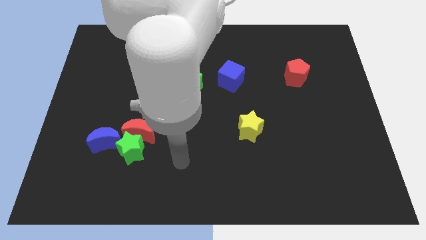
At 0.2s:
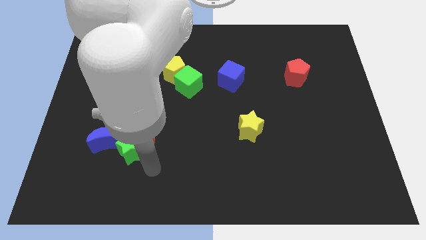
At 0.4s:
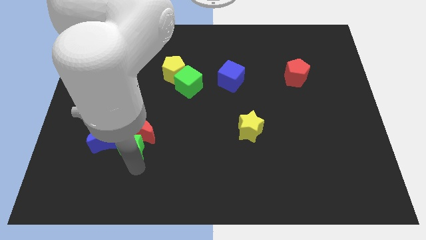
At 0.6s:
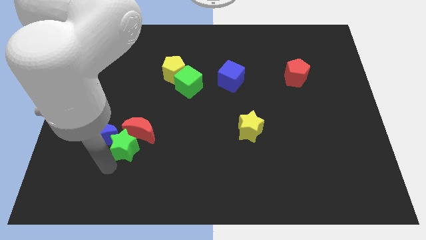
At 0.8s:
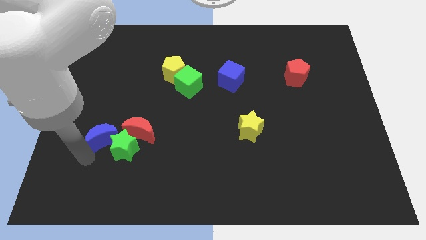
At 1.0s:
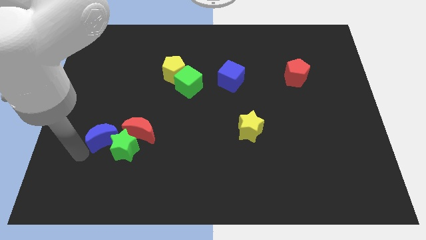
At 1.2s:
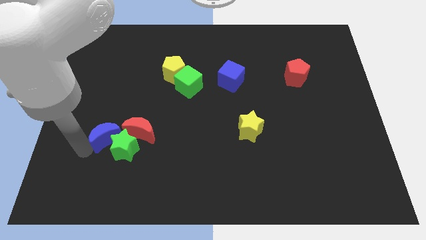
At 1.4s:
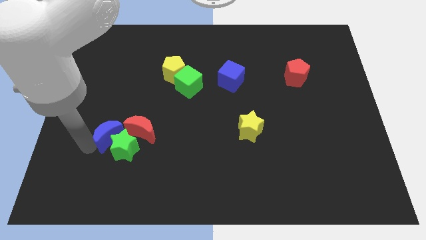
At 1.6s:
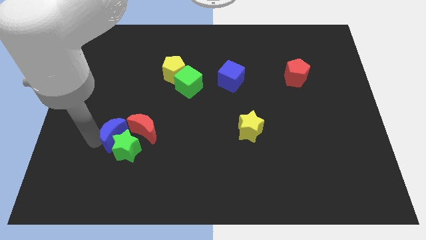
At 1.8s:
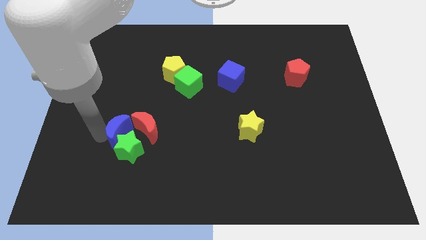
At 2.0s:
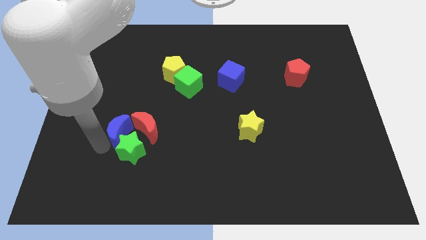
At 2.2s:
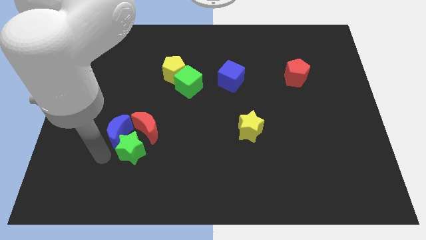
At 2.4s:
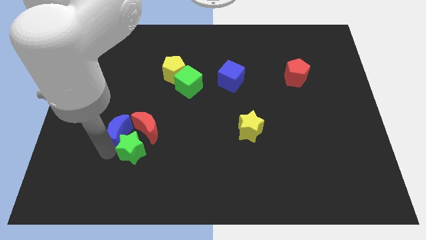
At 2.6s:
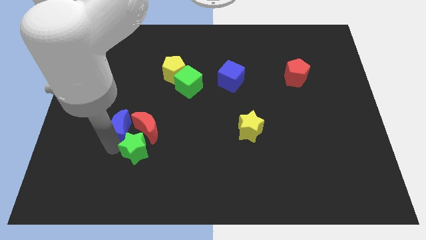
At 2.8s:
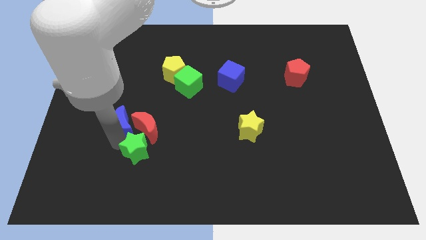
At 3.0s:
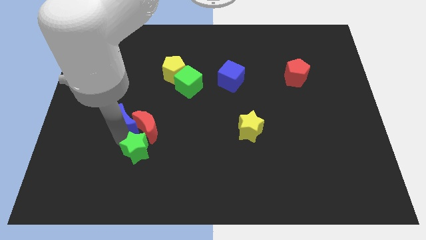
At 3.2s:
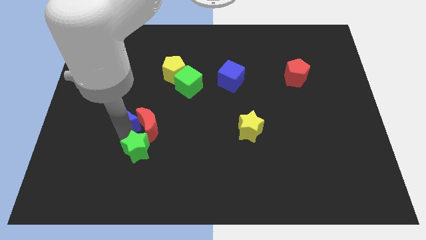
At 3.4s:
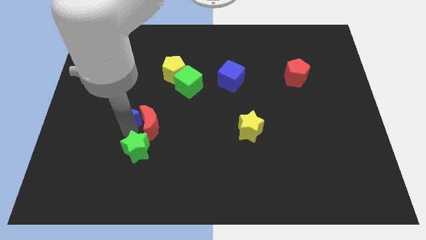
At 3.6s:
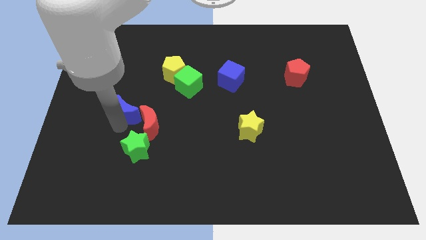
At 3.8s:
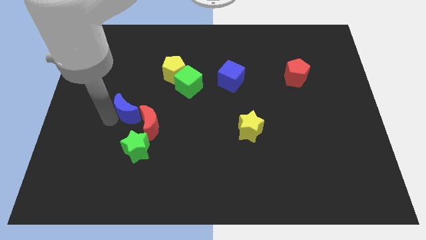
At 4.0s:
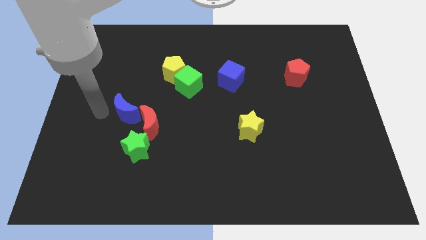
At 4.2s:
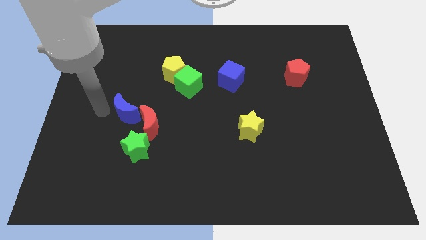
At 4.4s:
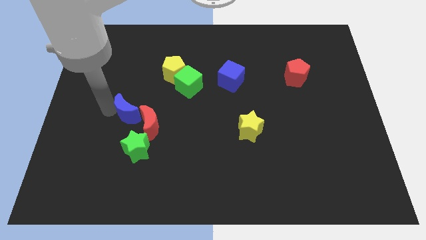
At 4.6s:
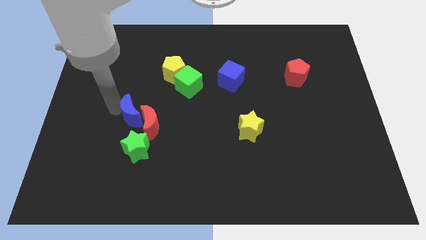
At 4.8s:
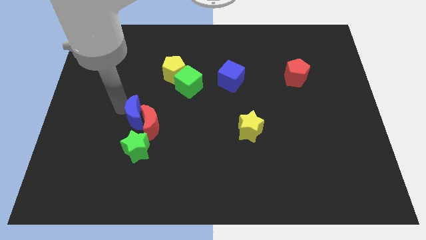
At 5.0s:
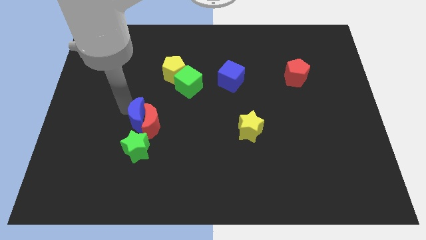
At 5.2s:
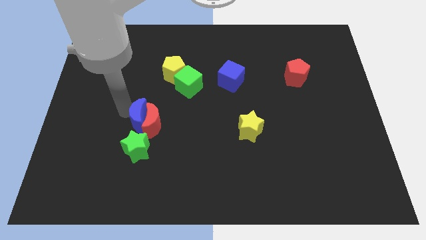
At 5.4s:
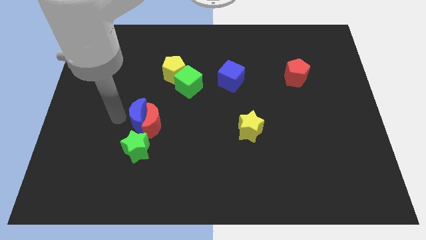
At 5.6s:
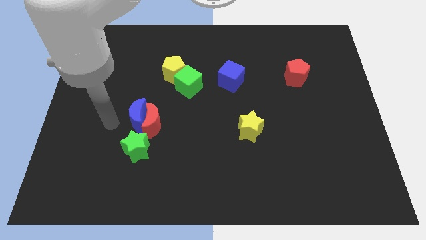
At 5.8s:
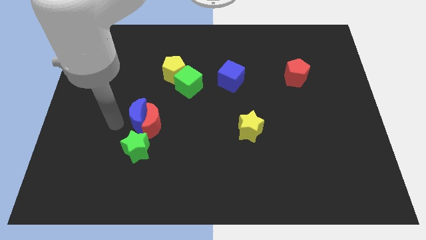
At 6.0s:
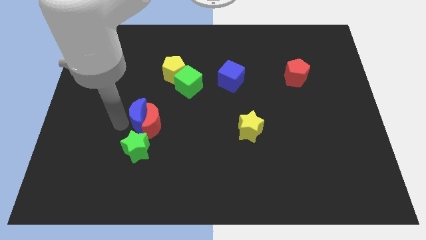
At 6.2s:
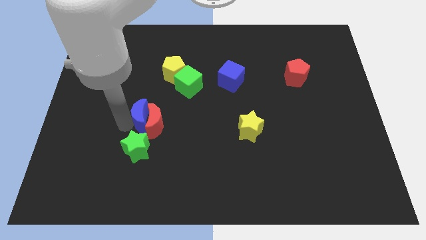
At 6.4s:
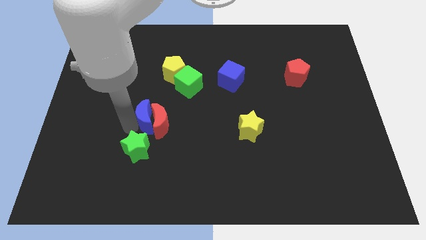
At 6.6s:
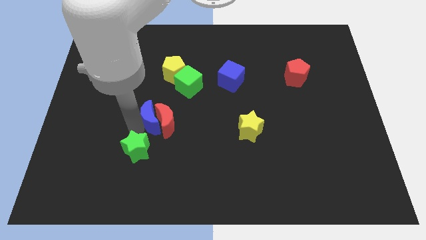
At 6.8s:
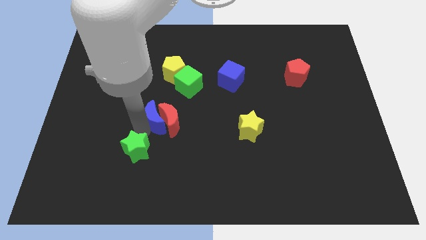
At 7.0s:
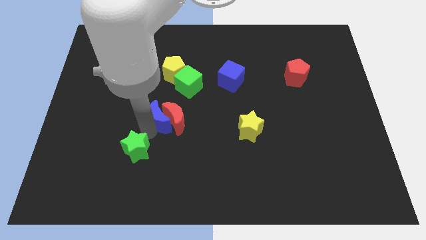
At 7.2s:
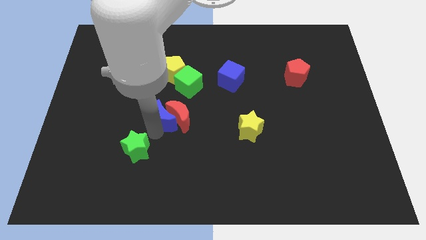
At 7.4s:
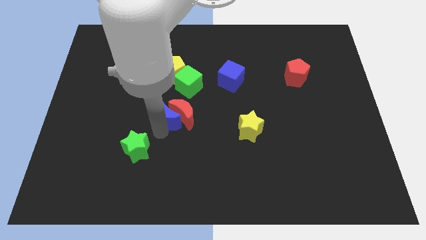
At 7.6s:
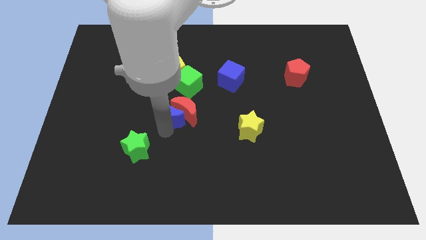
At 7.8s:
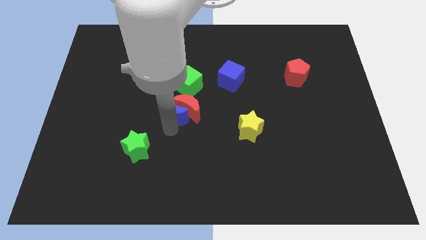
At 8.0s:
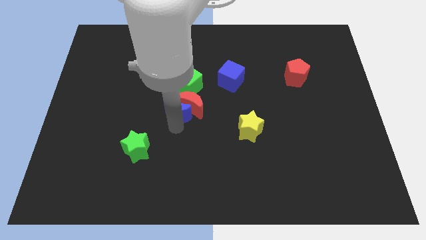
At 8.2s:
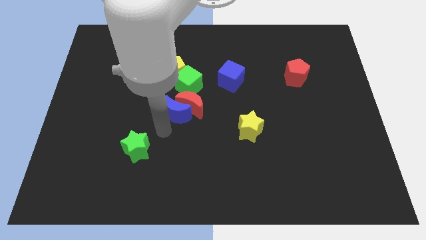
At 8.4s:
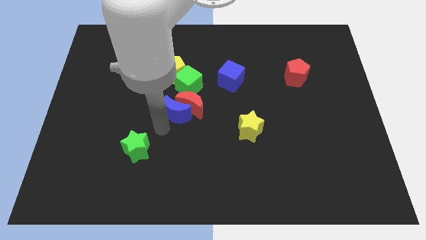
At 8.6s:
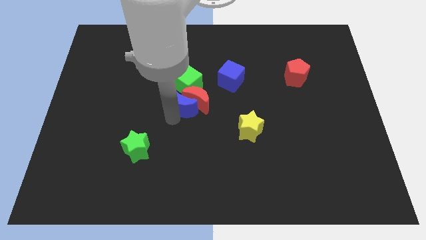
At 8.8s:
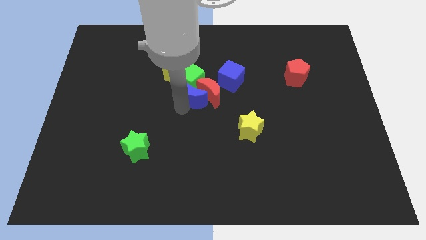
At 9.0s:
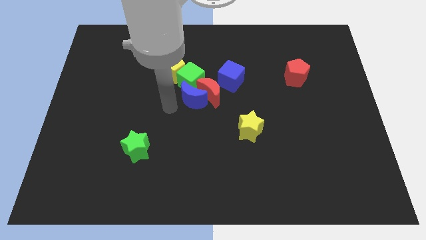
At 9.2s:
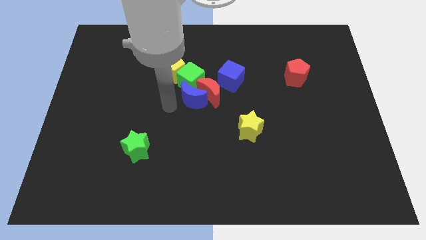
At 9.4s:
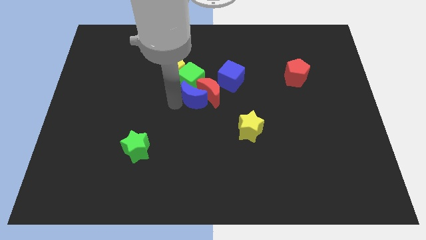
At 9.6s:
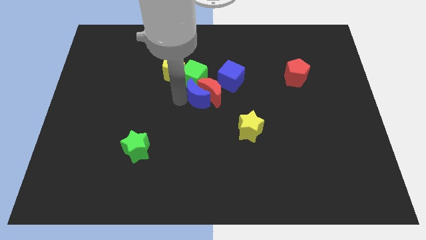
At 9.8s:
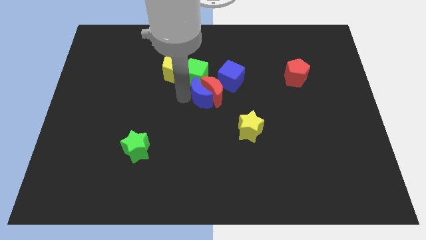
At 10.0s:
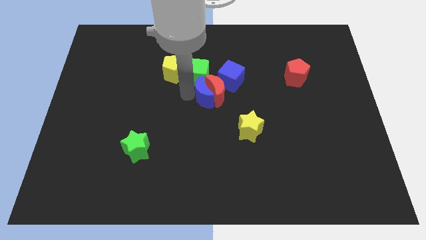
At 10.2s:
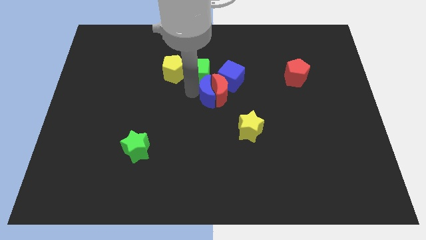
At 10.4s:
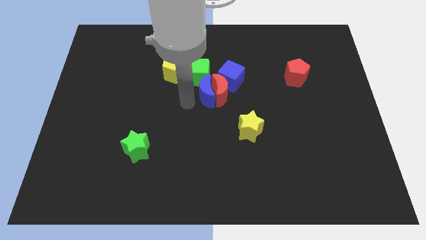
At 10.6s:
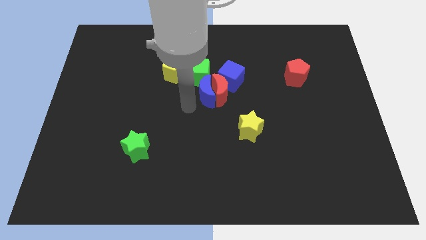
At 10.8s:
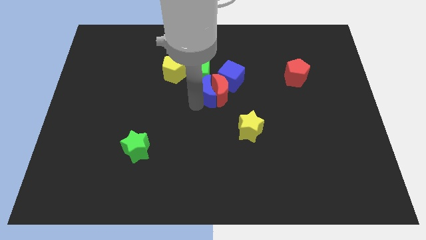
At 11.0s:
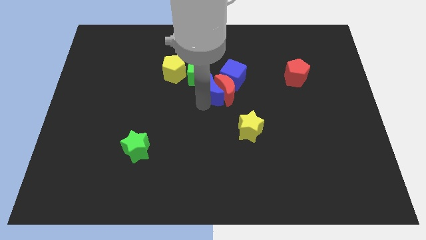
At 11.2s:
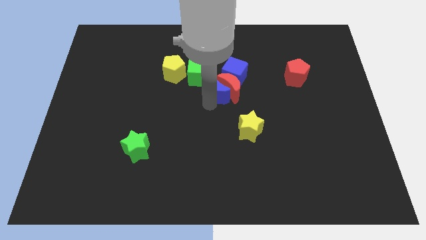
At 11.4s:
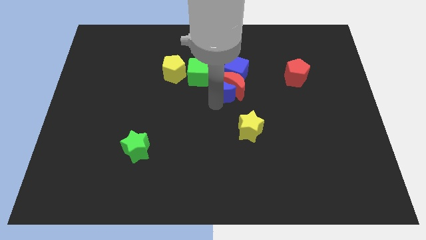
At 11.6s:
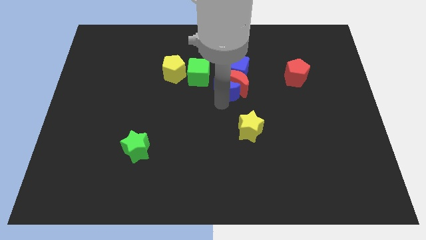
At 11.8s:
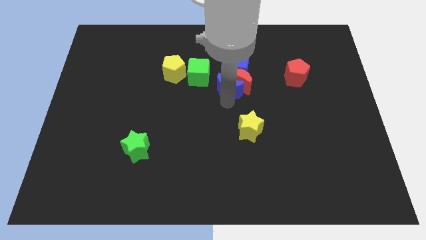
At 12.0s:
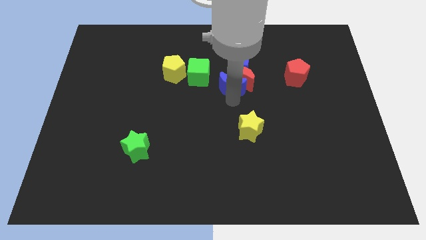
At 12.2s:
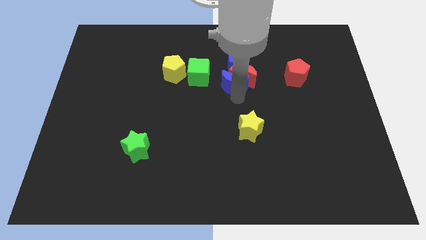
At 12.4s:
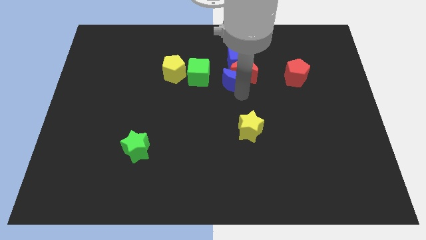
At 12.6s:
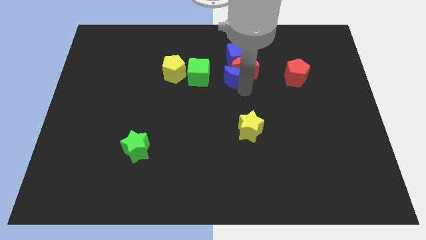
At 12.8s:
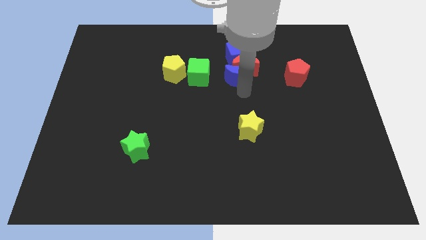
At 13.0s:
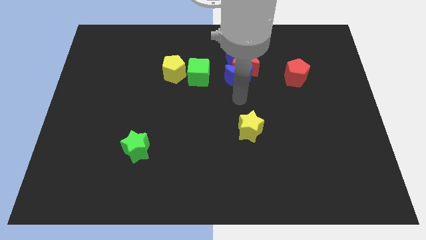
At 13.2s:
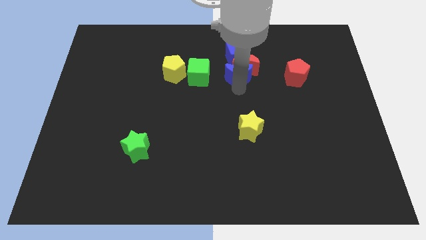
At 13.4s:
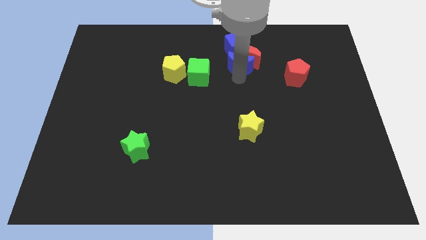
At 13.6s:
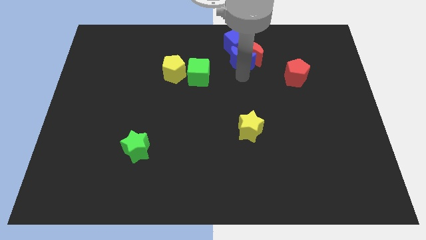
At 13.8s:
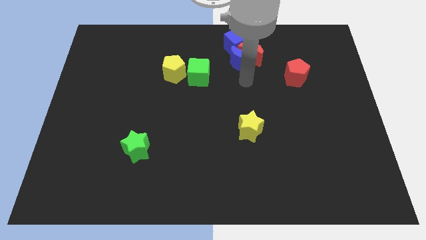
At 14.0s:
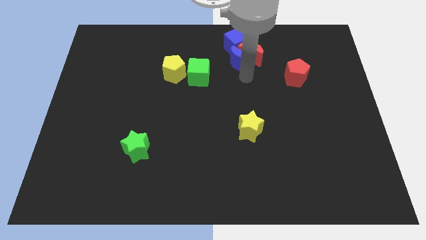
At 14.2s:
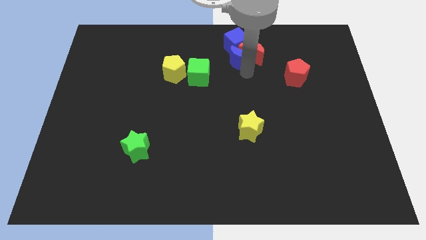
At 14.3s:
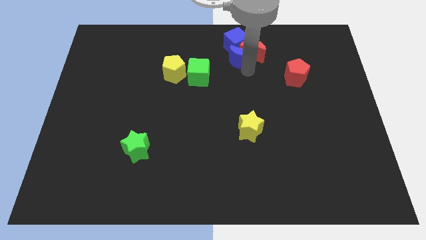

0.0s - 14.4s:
push the blue moon to the blue cube

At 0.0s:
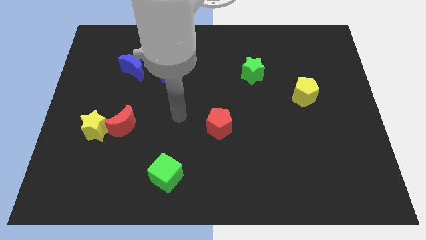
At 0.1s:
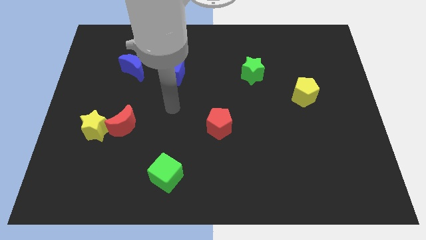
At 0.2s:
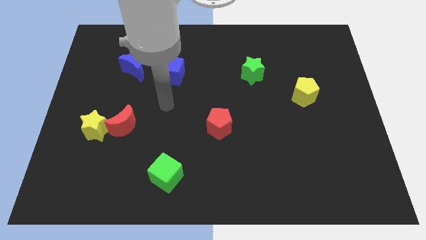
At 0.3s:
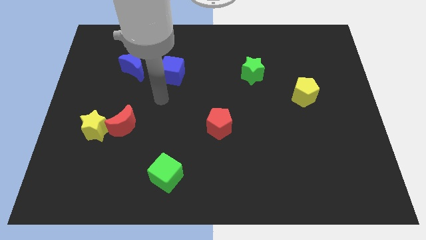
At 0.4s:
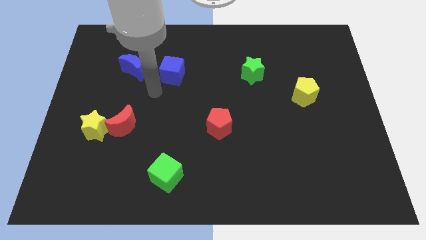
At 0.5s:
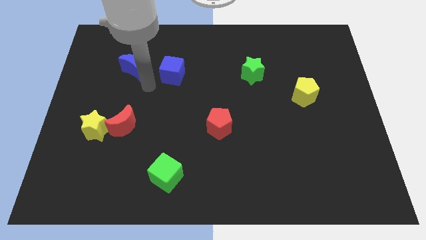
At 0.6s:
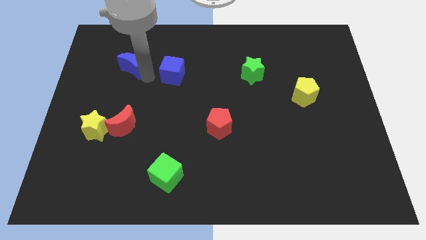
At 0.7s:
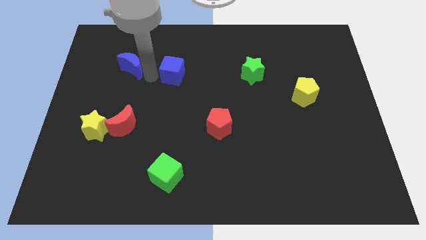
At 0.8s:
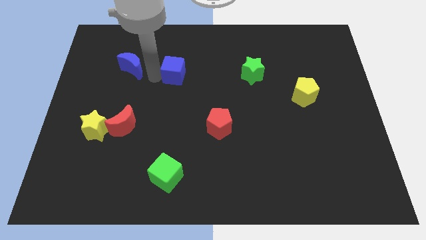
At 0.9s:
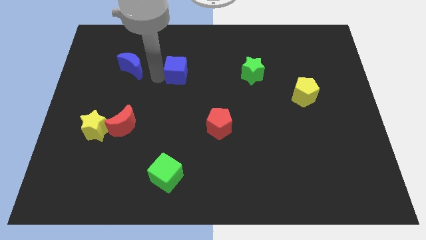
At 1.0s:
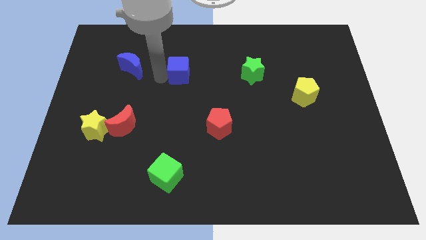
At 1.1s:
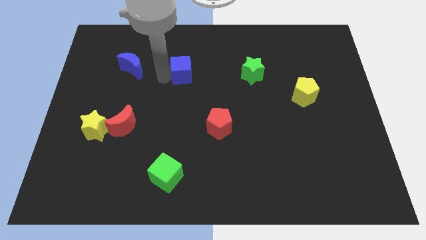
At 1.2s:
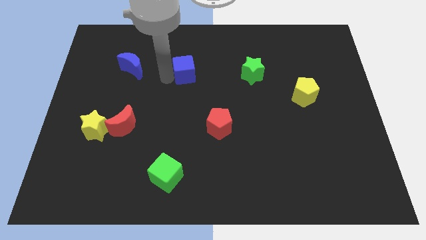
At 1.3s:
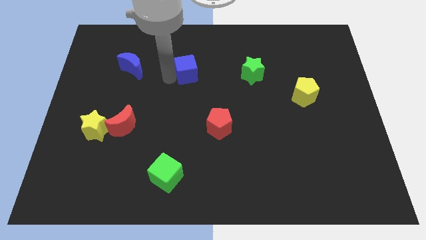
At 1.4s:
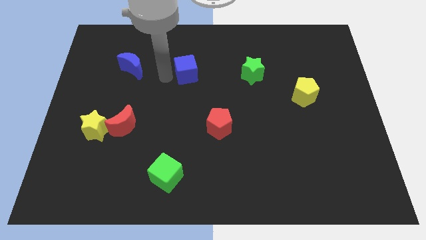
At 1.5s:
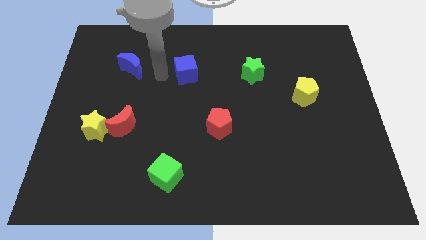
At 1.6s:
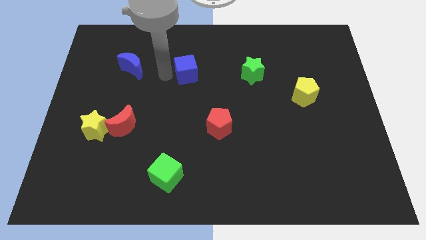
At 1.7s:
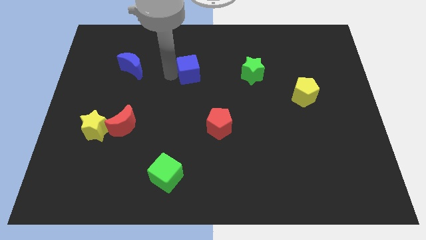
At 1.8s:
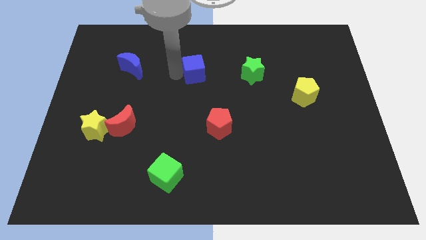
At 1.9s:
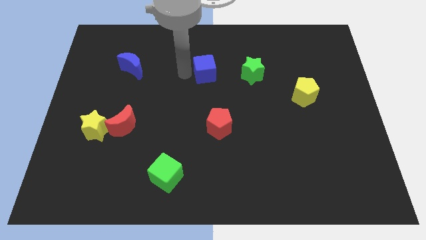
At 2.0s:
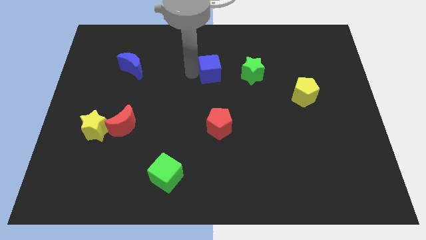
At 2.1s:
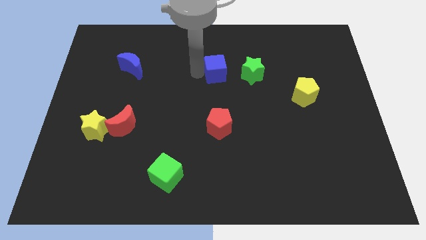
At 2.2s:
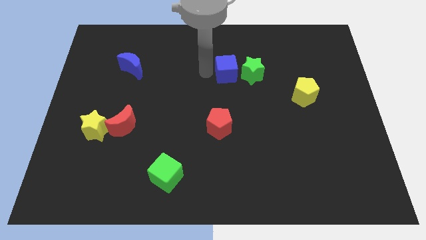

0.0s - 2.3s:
put the blue cube towards the green star
